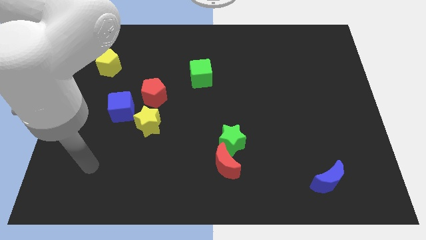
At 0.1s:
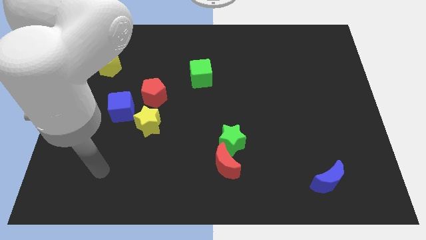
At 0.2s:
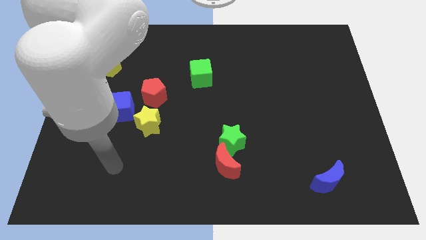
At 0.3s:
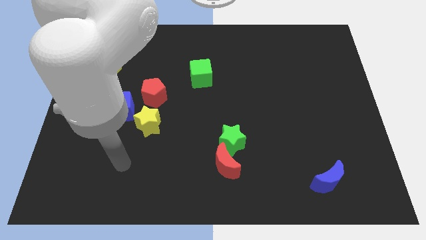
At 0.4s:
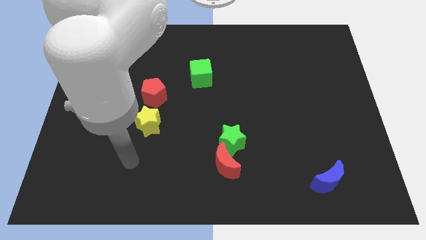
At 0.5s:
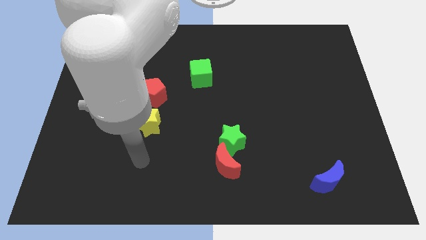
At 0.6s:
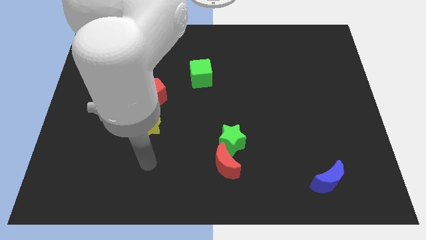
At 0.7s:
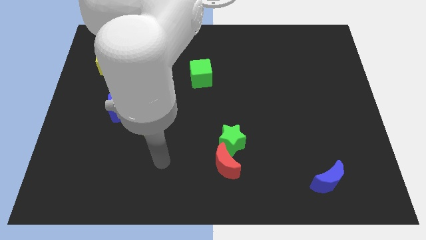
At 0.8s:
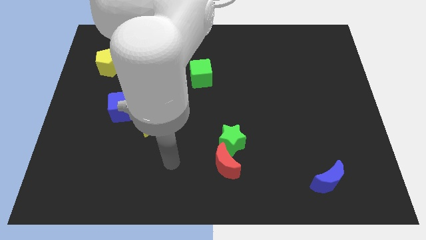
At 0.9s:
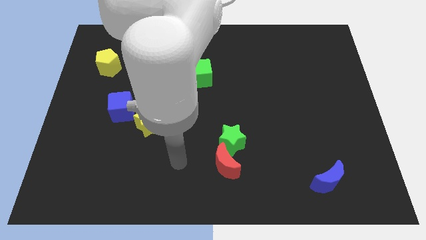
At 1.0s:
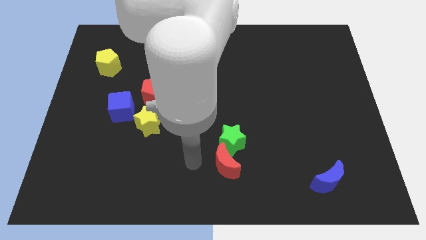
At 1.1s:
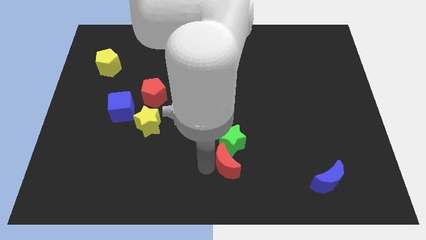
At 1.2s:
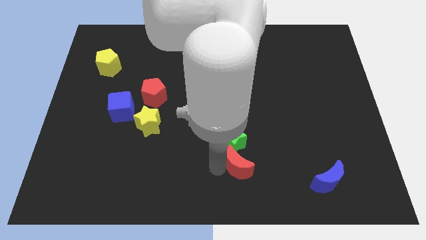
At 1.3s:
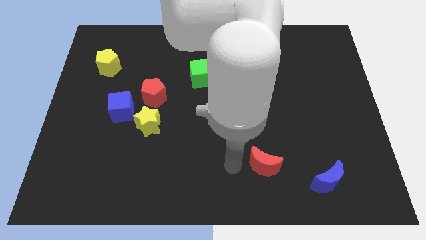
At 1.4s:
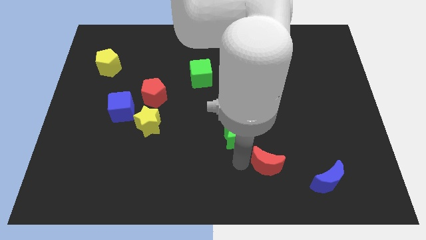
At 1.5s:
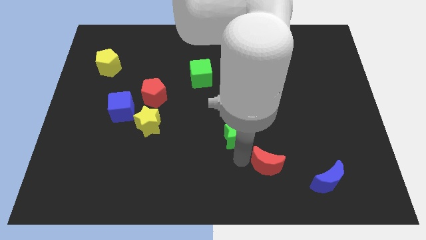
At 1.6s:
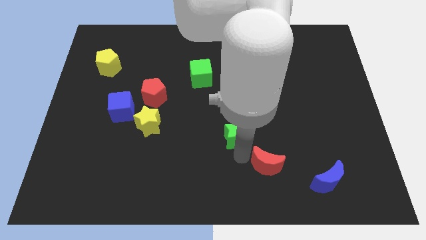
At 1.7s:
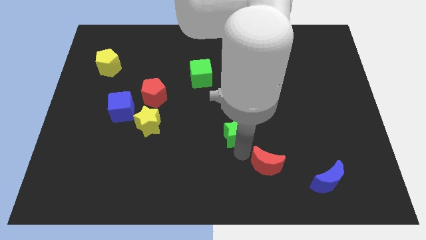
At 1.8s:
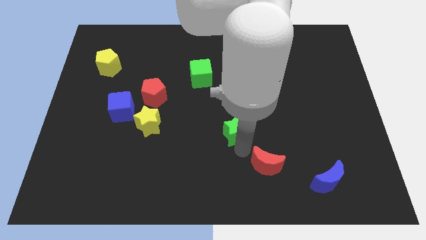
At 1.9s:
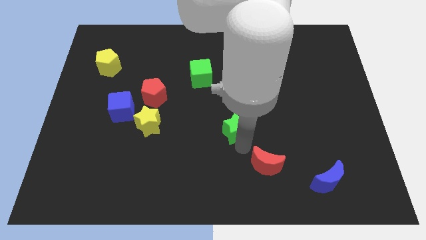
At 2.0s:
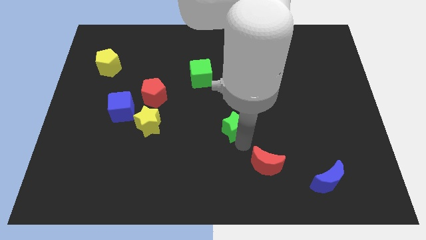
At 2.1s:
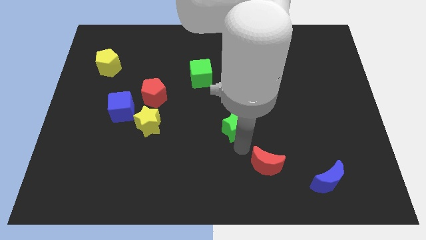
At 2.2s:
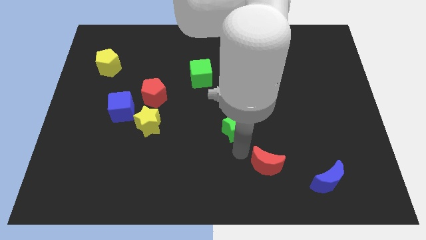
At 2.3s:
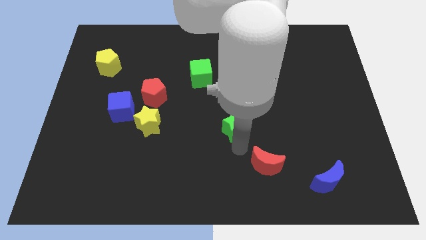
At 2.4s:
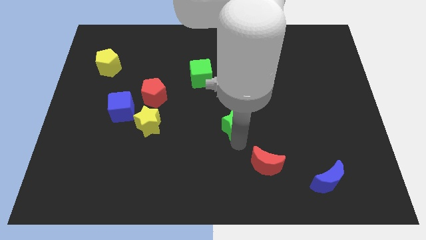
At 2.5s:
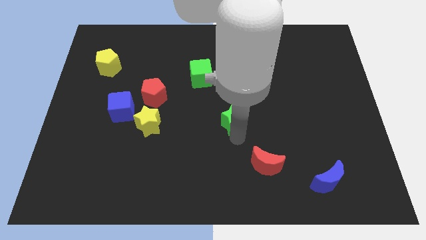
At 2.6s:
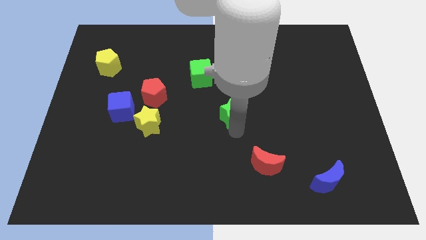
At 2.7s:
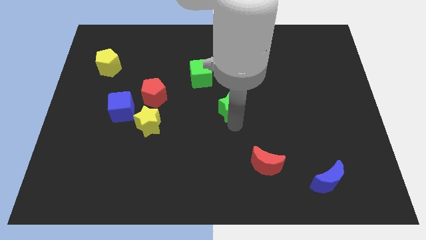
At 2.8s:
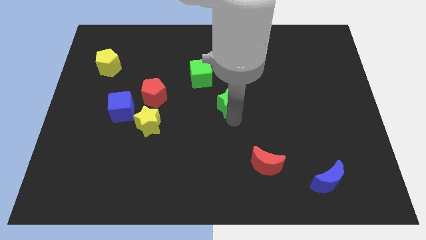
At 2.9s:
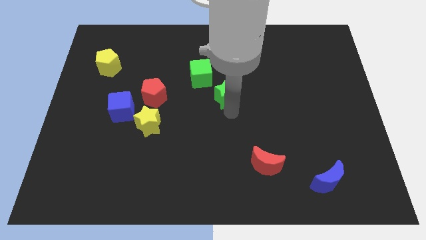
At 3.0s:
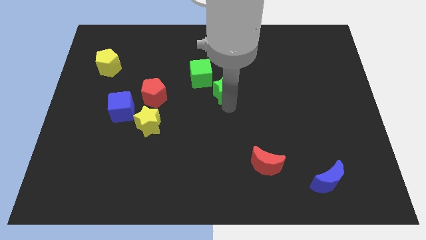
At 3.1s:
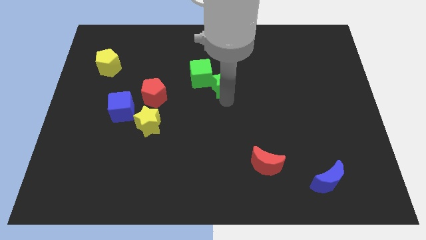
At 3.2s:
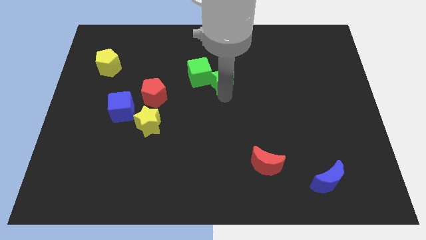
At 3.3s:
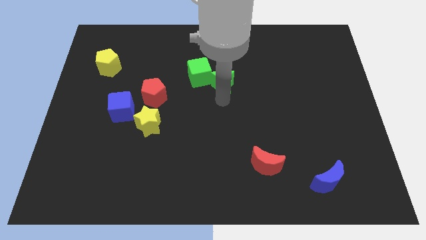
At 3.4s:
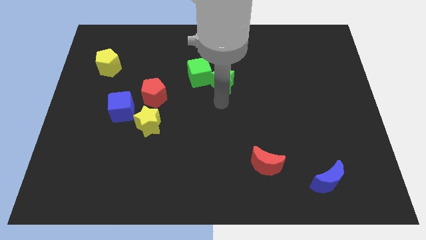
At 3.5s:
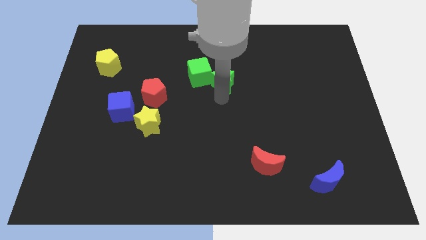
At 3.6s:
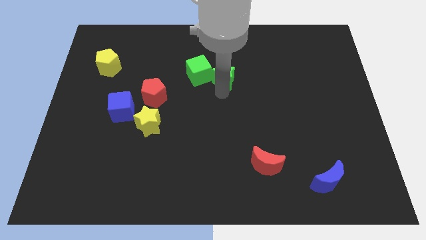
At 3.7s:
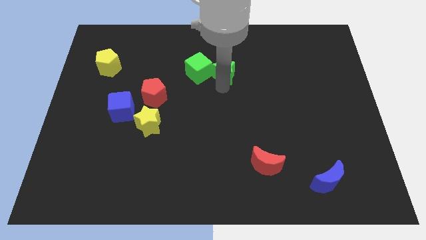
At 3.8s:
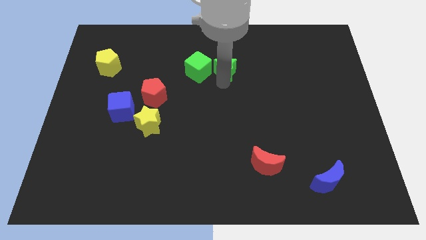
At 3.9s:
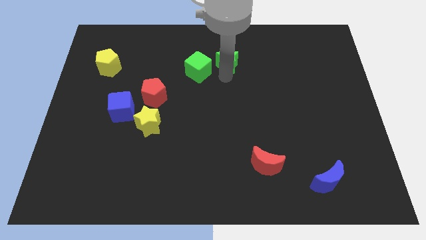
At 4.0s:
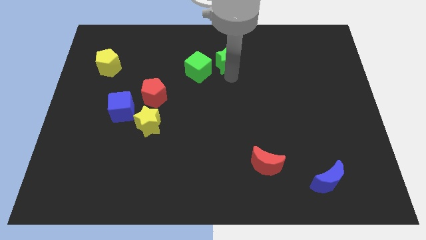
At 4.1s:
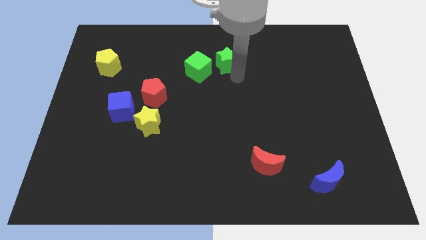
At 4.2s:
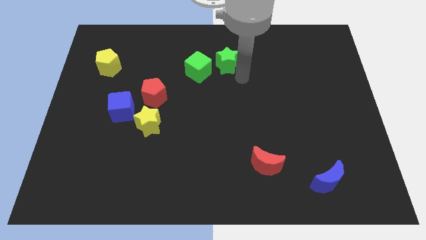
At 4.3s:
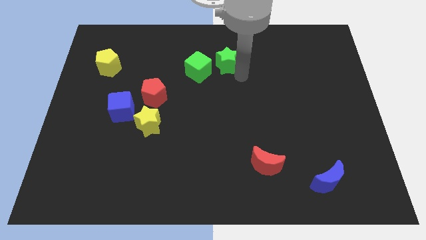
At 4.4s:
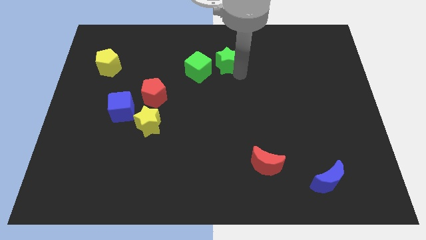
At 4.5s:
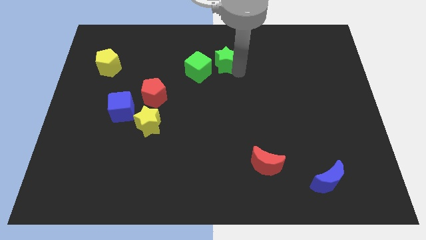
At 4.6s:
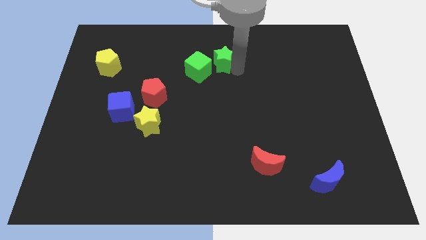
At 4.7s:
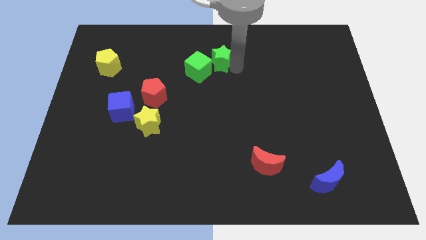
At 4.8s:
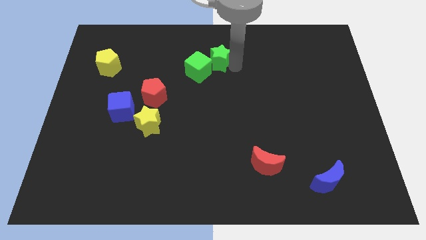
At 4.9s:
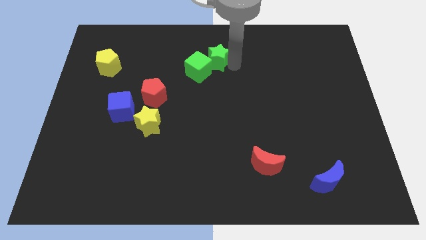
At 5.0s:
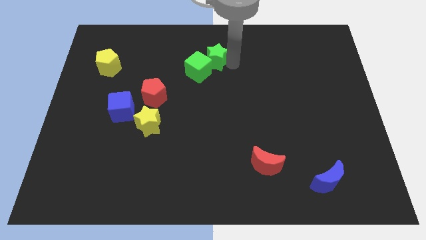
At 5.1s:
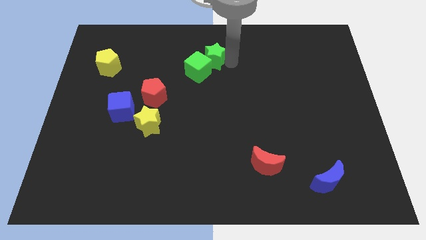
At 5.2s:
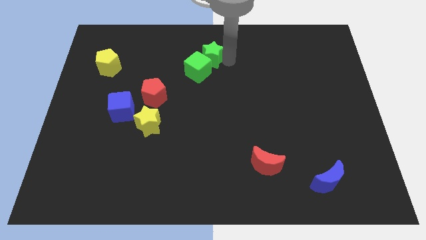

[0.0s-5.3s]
slide the green star to the top side

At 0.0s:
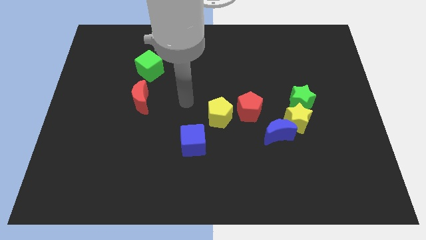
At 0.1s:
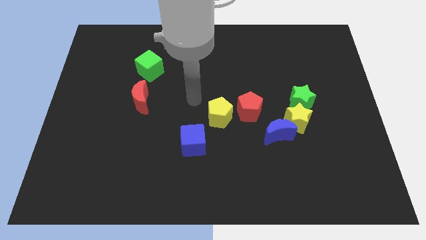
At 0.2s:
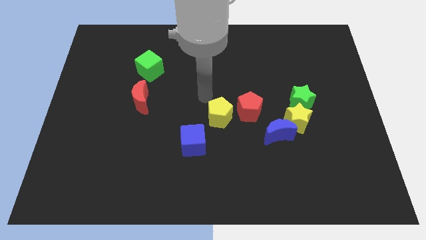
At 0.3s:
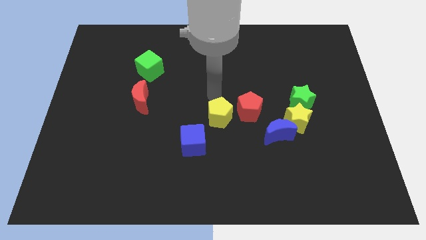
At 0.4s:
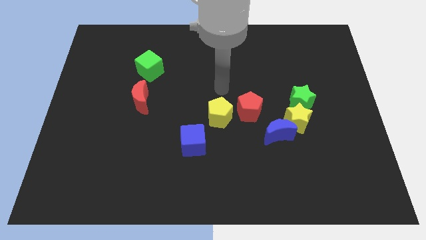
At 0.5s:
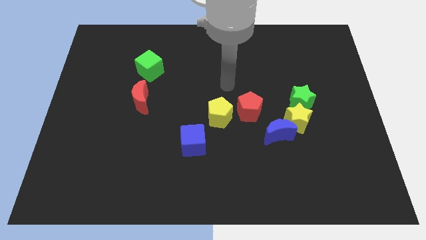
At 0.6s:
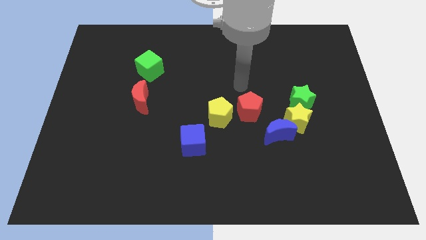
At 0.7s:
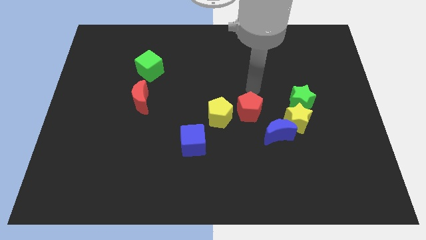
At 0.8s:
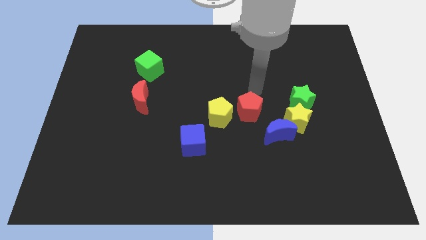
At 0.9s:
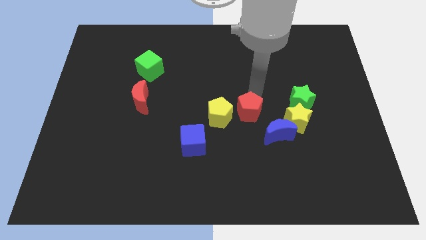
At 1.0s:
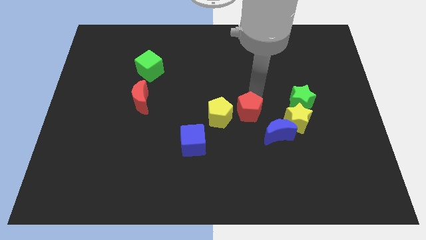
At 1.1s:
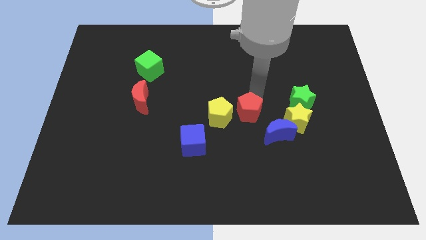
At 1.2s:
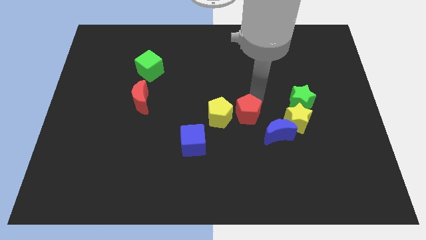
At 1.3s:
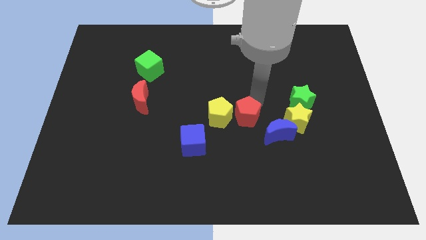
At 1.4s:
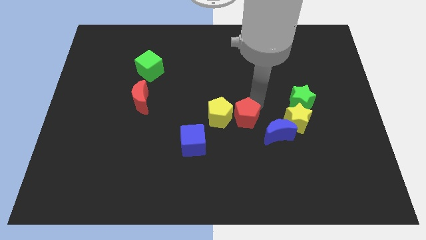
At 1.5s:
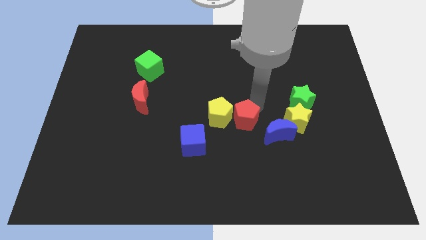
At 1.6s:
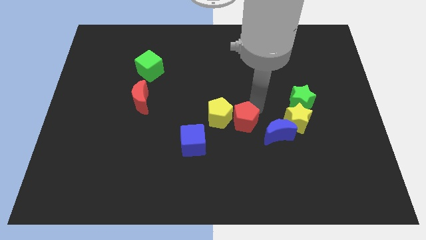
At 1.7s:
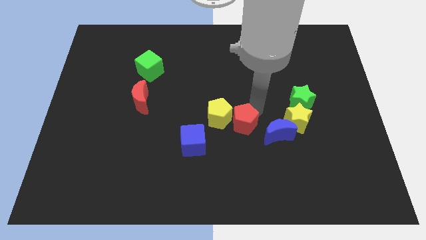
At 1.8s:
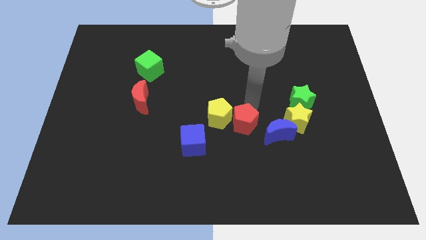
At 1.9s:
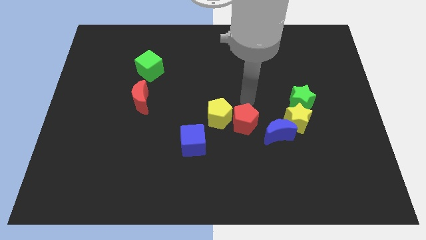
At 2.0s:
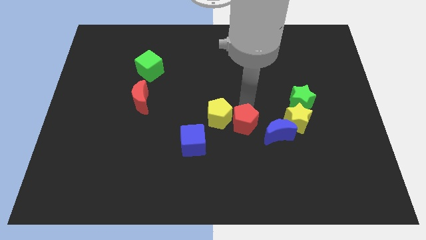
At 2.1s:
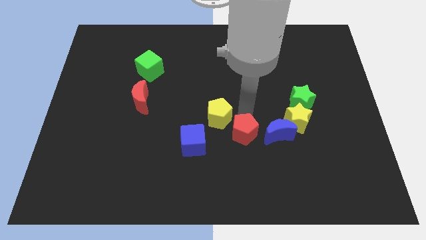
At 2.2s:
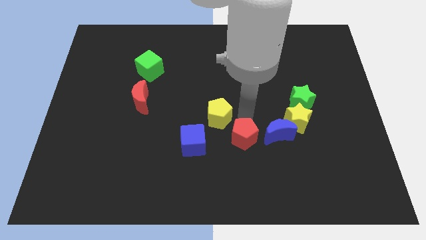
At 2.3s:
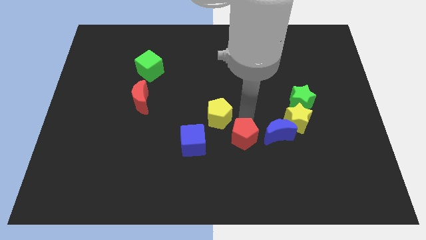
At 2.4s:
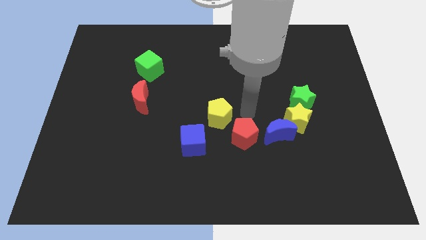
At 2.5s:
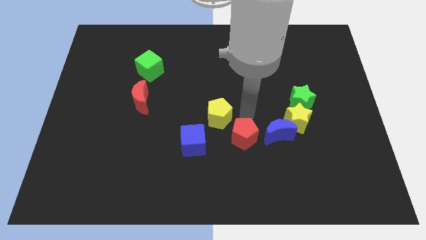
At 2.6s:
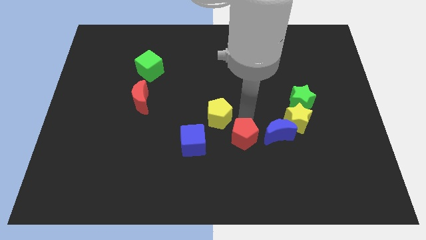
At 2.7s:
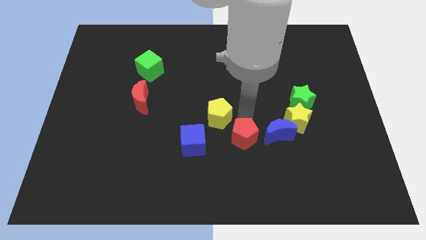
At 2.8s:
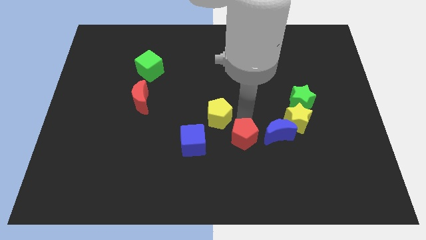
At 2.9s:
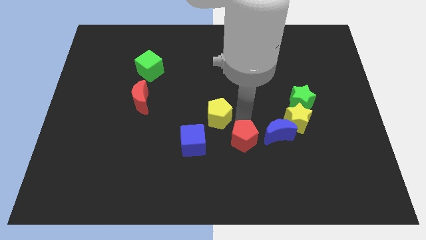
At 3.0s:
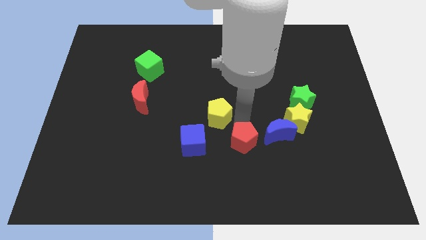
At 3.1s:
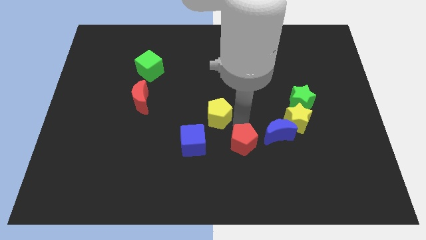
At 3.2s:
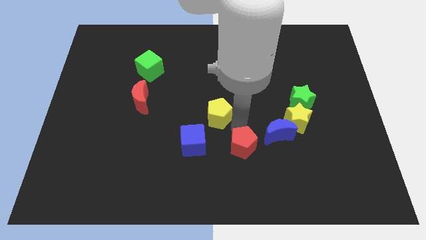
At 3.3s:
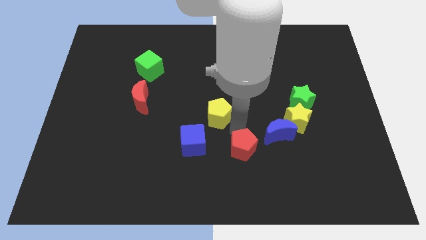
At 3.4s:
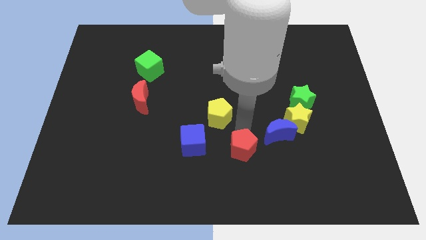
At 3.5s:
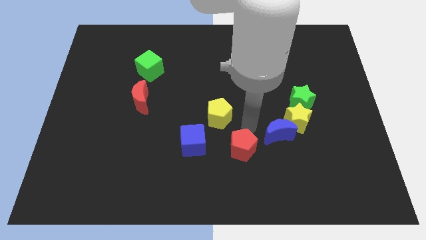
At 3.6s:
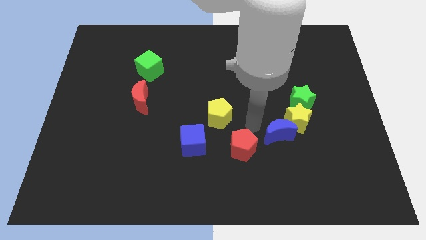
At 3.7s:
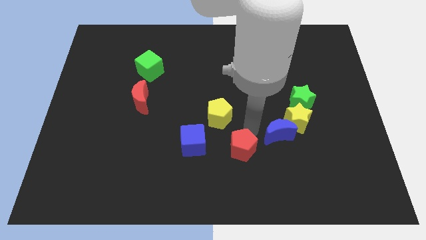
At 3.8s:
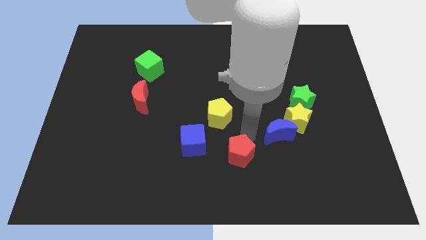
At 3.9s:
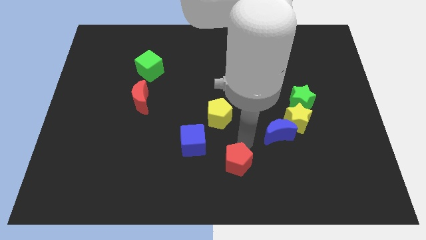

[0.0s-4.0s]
put the red pentagon to the bottom side
